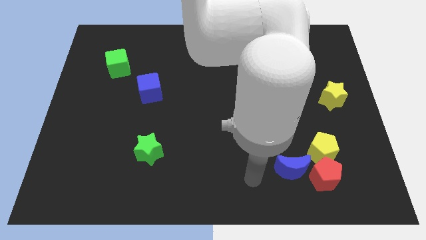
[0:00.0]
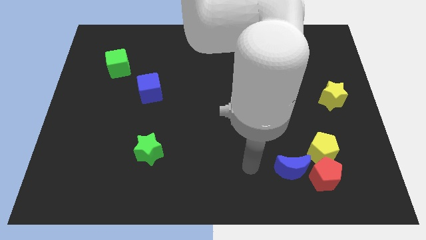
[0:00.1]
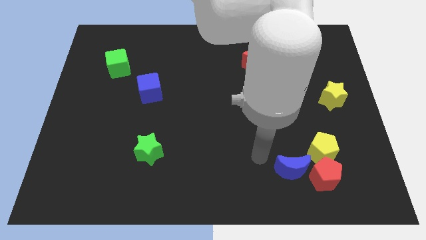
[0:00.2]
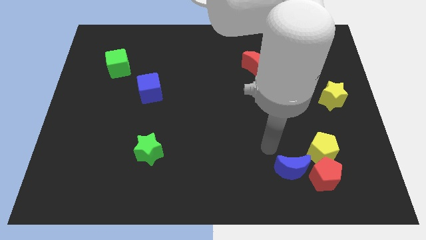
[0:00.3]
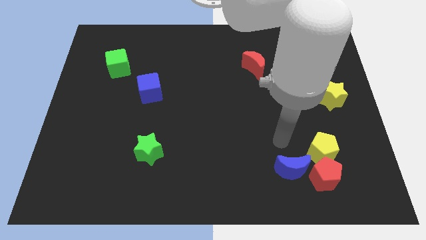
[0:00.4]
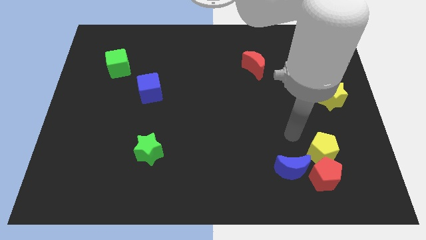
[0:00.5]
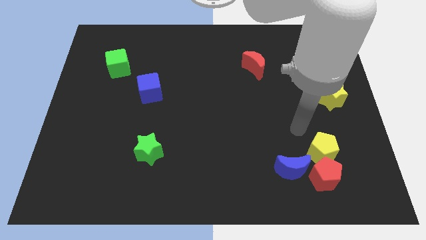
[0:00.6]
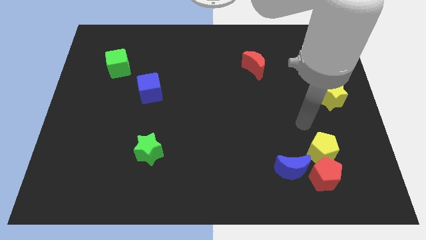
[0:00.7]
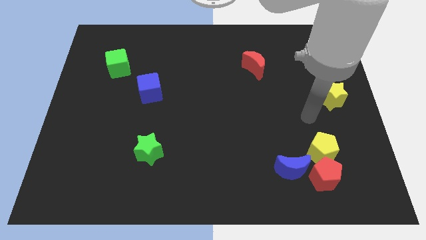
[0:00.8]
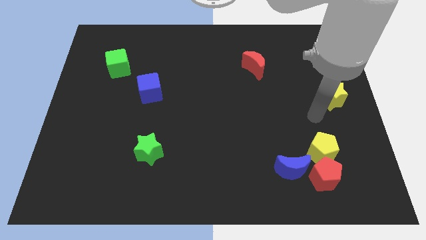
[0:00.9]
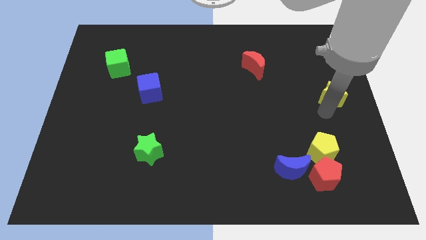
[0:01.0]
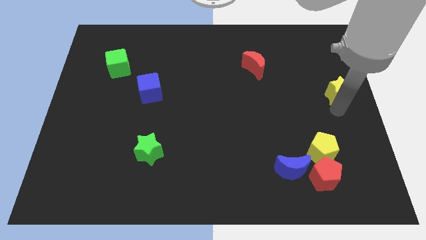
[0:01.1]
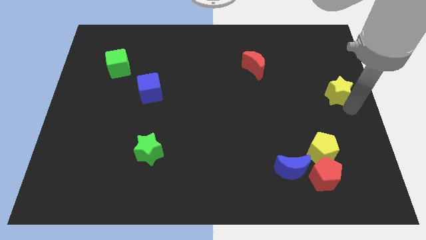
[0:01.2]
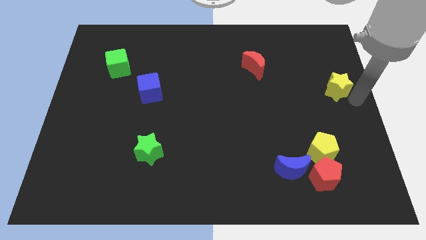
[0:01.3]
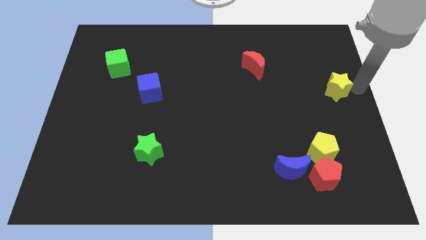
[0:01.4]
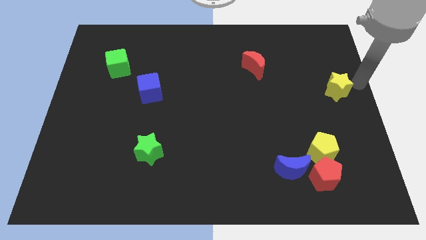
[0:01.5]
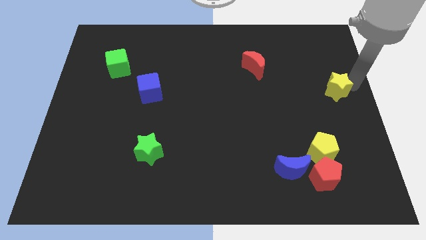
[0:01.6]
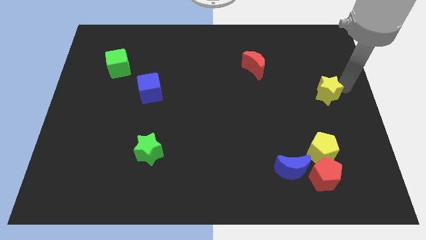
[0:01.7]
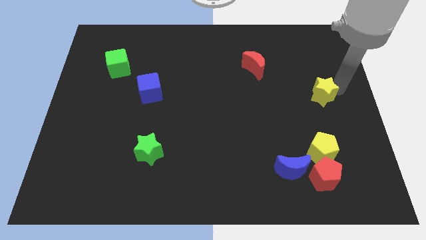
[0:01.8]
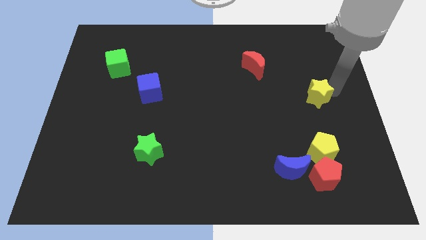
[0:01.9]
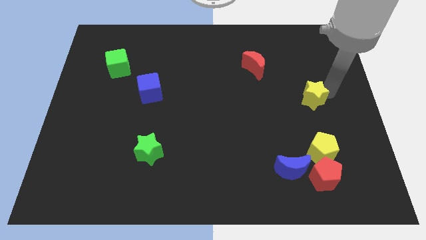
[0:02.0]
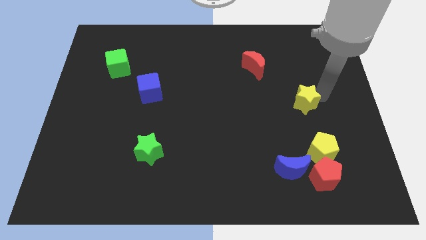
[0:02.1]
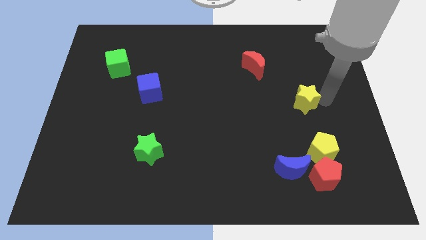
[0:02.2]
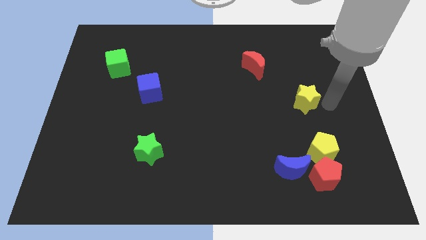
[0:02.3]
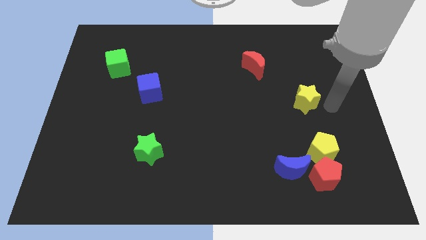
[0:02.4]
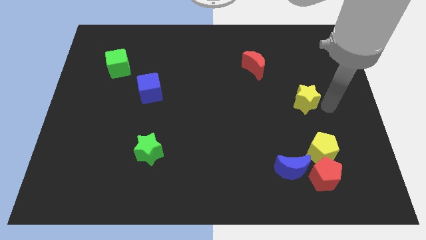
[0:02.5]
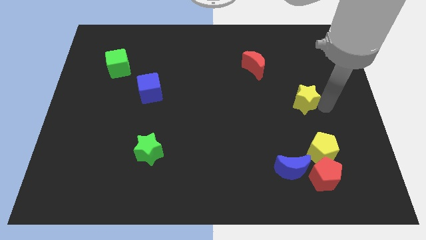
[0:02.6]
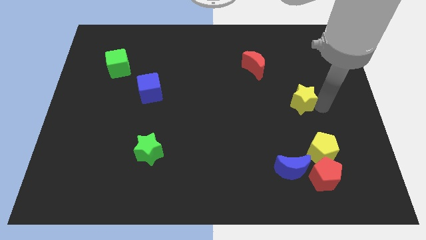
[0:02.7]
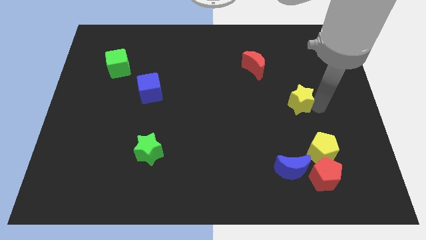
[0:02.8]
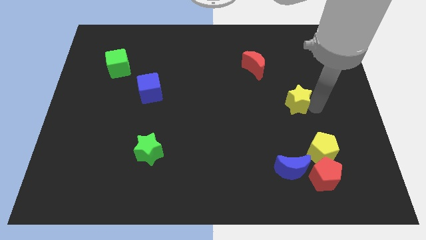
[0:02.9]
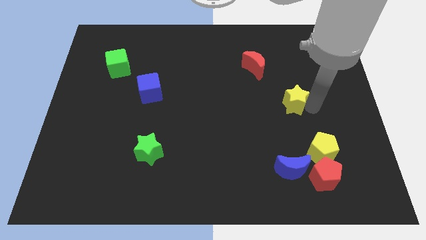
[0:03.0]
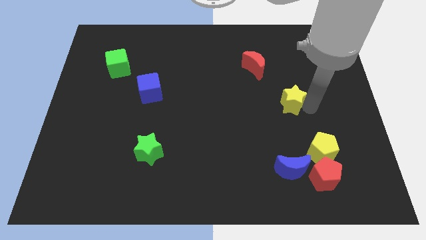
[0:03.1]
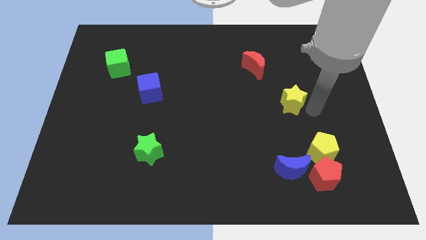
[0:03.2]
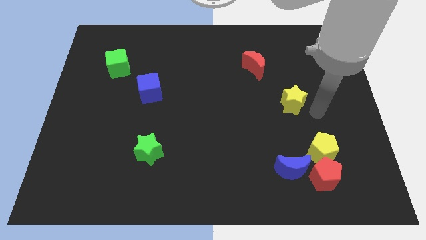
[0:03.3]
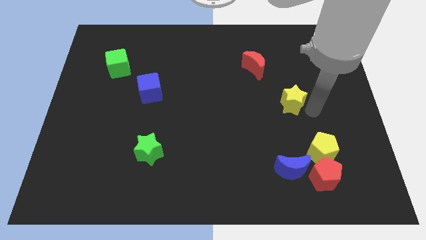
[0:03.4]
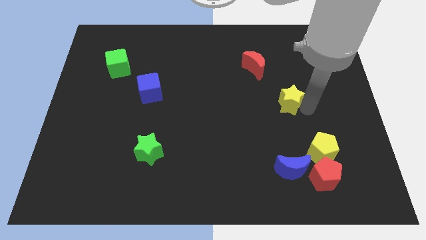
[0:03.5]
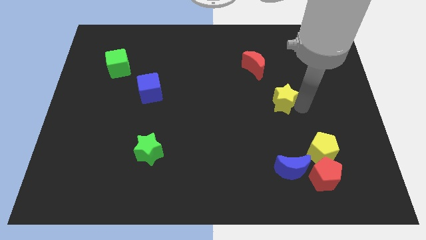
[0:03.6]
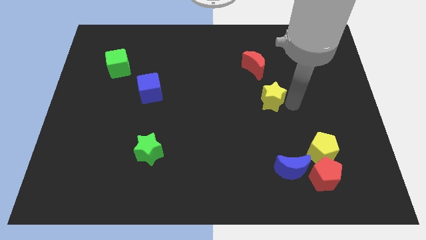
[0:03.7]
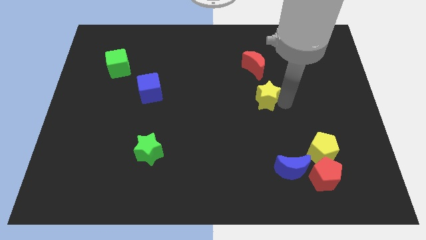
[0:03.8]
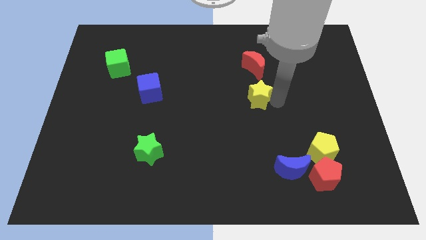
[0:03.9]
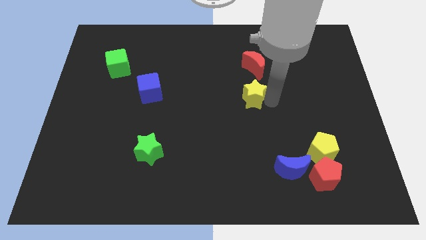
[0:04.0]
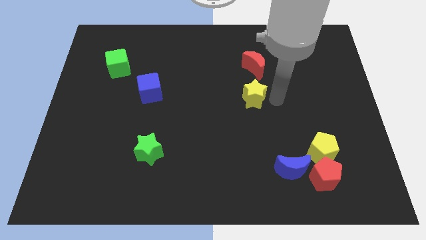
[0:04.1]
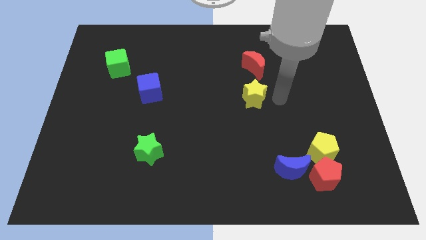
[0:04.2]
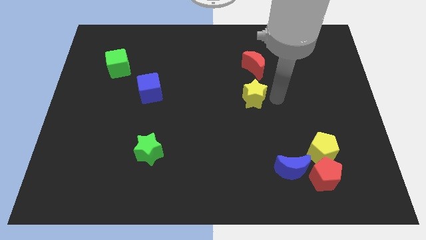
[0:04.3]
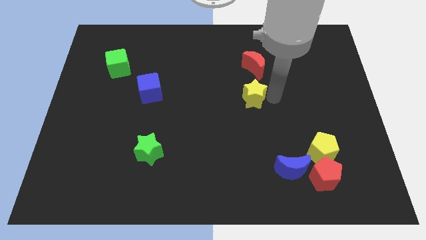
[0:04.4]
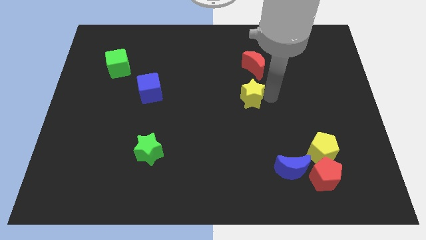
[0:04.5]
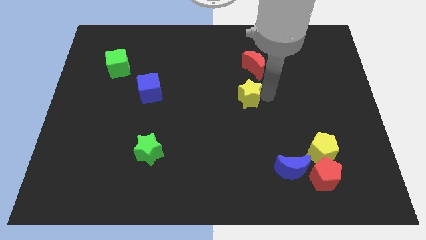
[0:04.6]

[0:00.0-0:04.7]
push the yellow star to the left

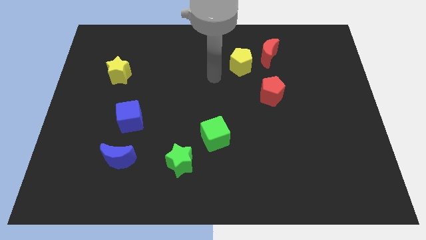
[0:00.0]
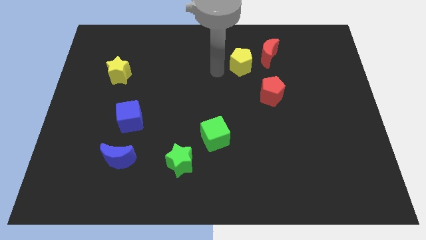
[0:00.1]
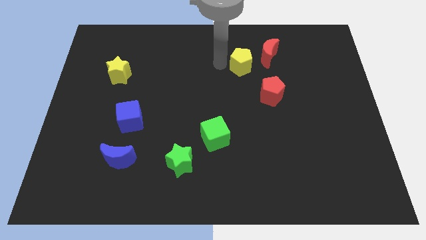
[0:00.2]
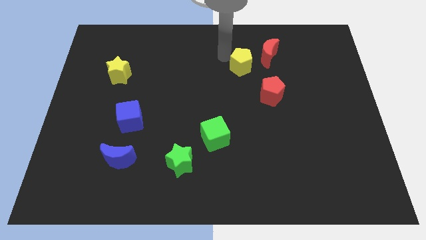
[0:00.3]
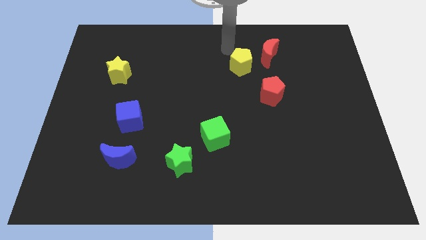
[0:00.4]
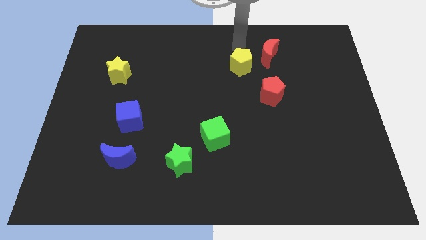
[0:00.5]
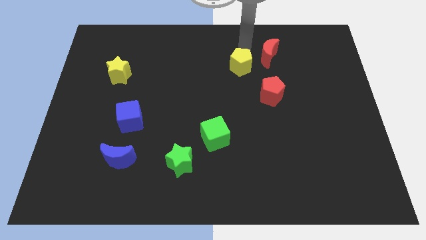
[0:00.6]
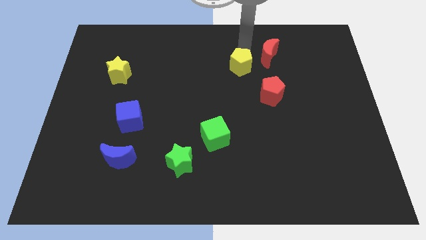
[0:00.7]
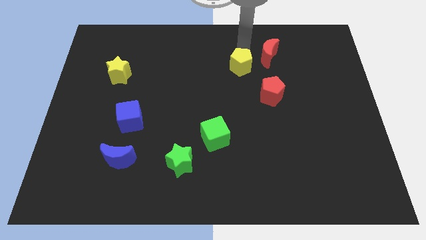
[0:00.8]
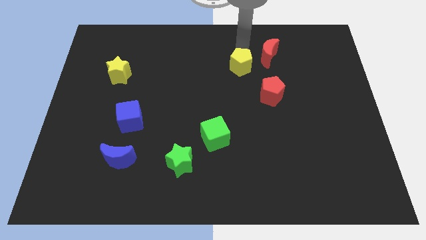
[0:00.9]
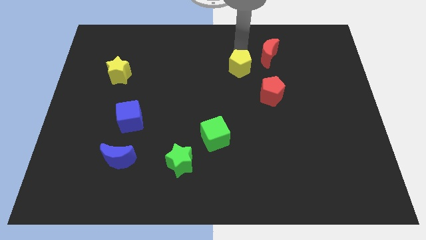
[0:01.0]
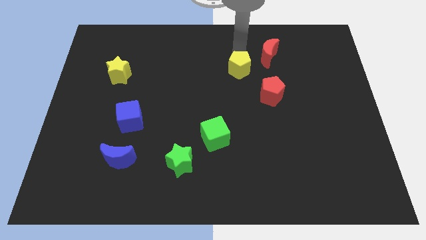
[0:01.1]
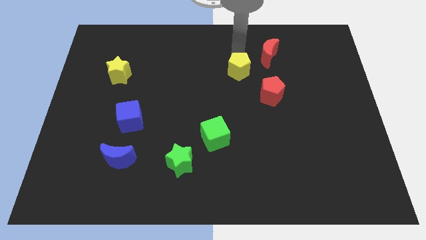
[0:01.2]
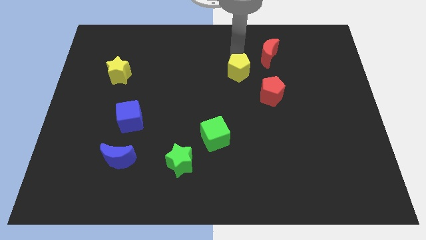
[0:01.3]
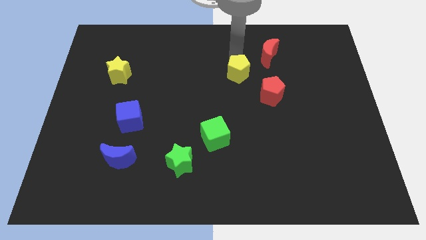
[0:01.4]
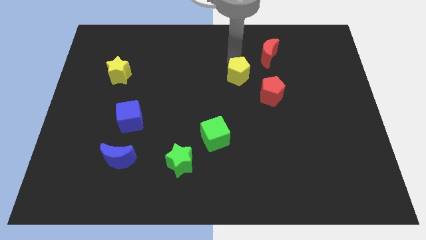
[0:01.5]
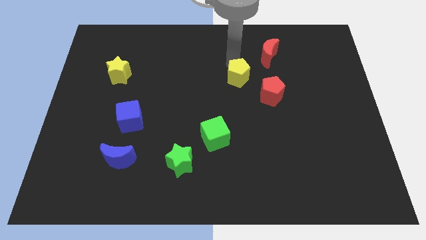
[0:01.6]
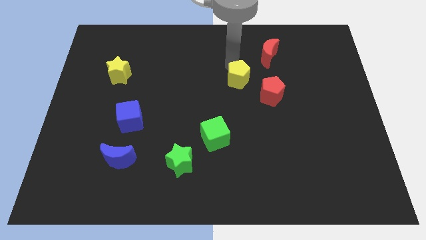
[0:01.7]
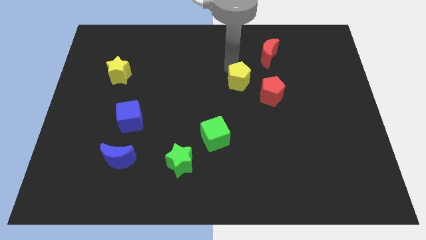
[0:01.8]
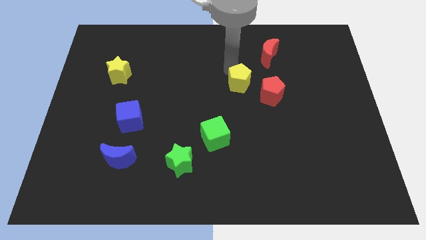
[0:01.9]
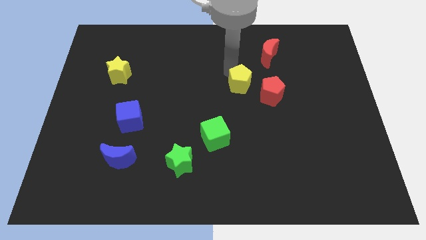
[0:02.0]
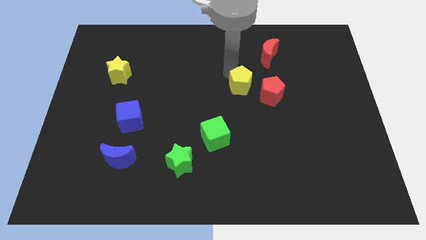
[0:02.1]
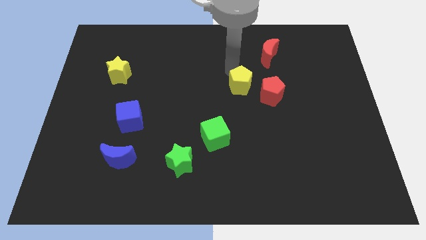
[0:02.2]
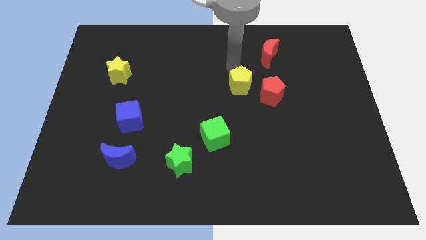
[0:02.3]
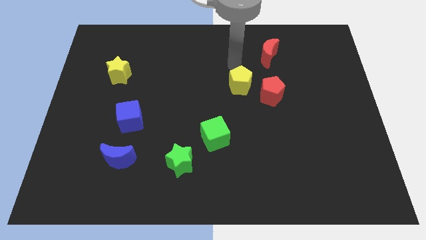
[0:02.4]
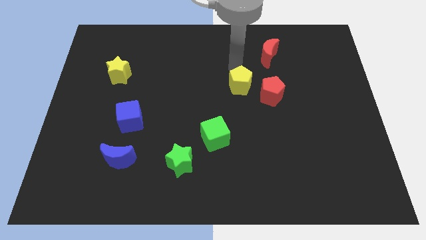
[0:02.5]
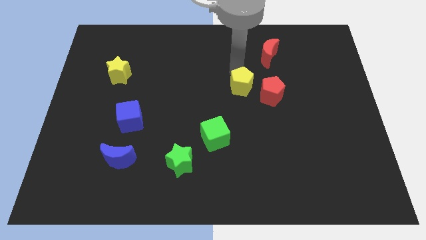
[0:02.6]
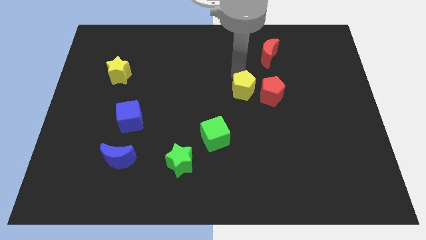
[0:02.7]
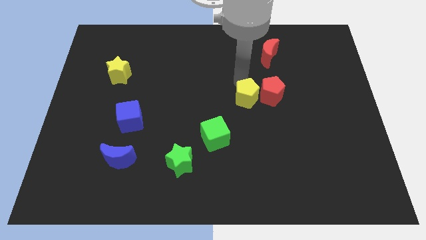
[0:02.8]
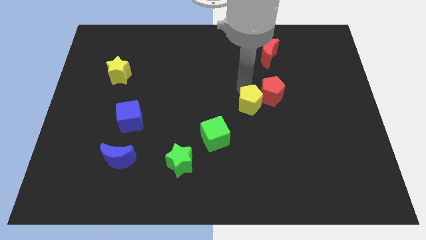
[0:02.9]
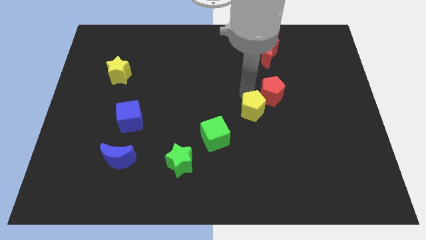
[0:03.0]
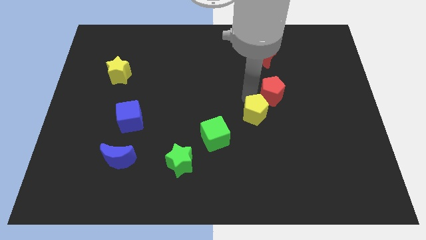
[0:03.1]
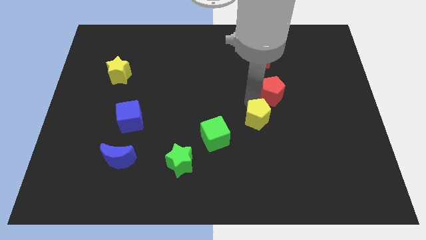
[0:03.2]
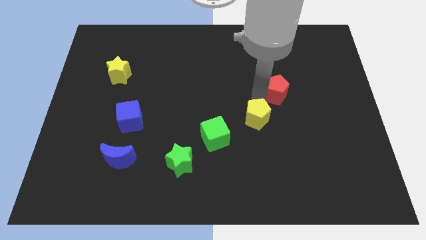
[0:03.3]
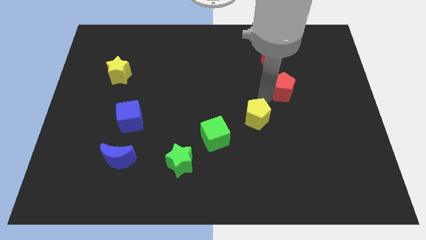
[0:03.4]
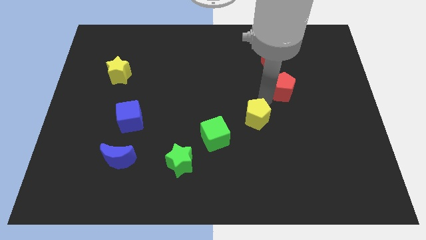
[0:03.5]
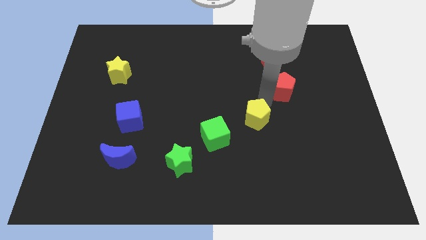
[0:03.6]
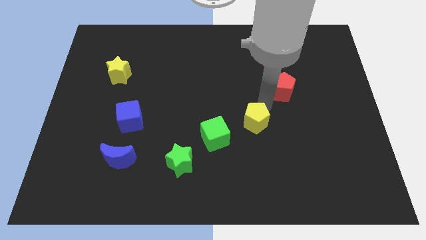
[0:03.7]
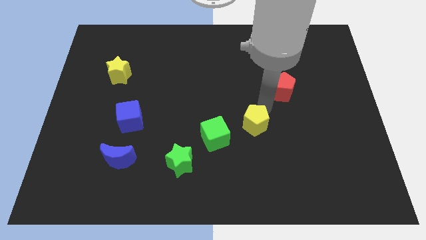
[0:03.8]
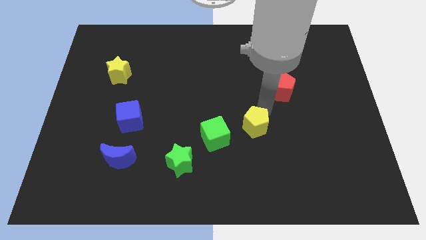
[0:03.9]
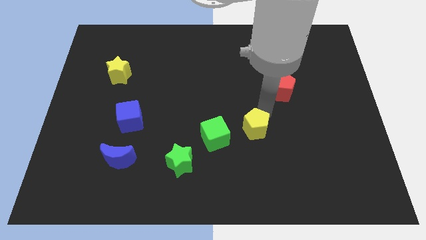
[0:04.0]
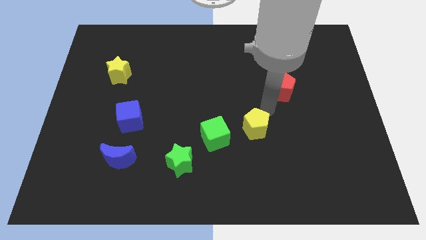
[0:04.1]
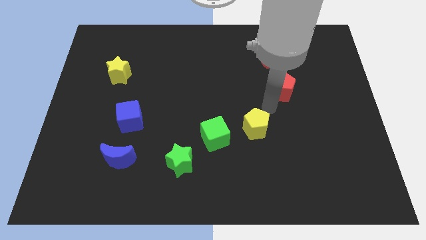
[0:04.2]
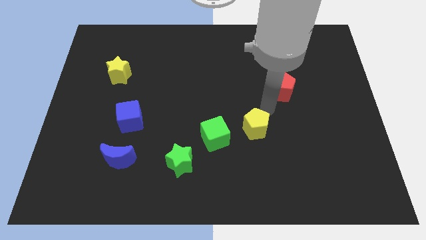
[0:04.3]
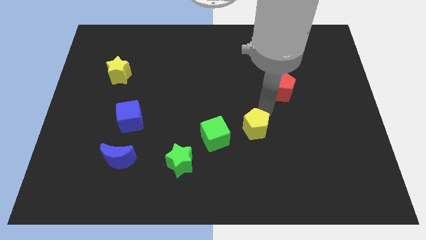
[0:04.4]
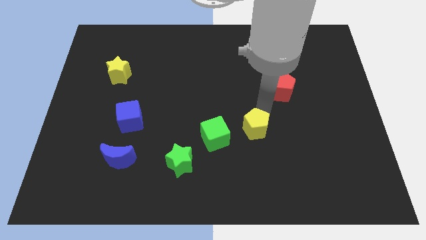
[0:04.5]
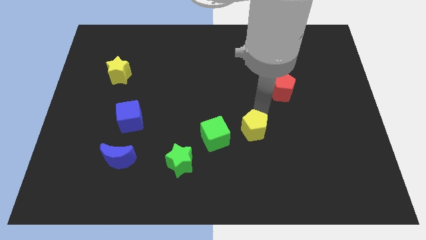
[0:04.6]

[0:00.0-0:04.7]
slide the yellow pentagon down
